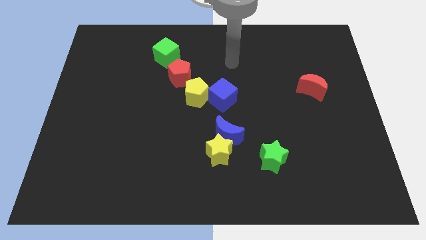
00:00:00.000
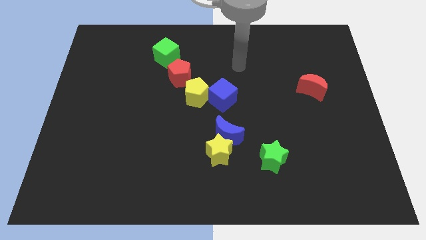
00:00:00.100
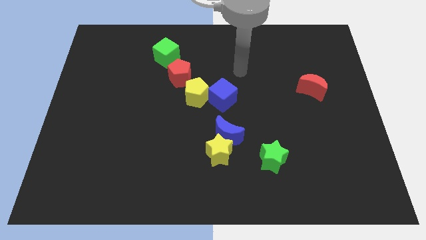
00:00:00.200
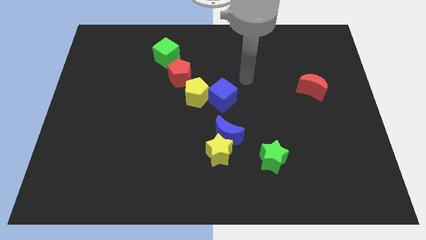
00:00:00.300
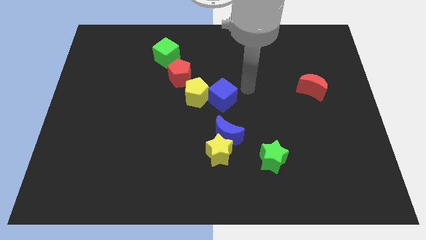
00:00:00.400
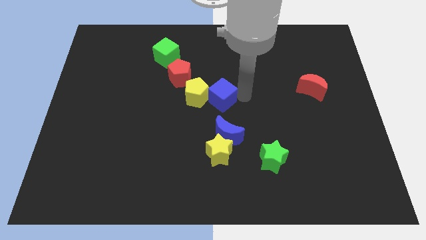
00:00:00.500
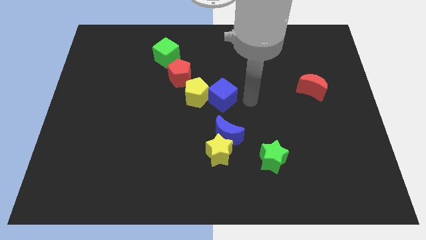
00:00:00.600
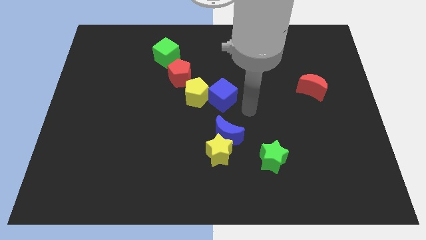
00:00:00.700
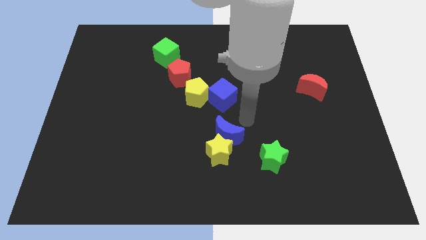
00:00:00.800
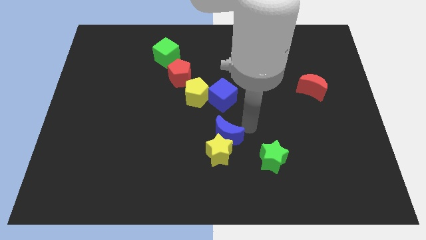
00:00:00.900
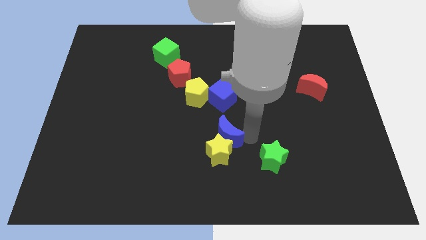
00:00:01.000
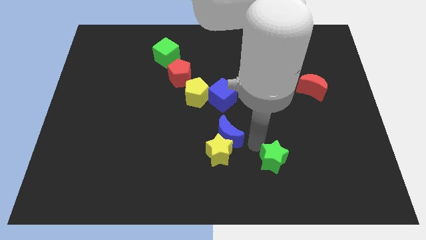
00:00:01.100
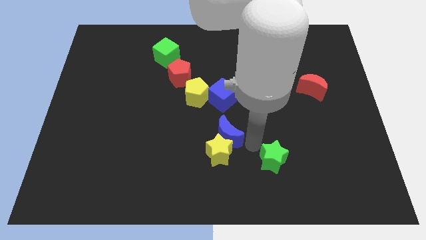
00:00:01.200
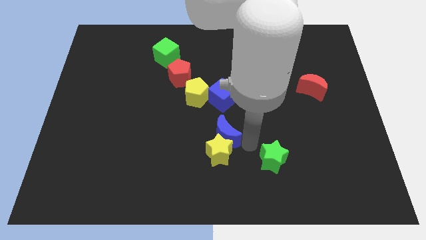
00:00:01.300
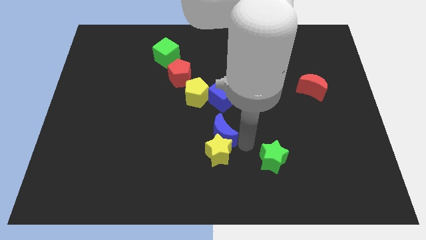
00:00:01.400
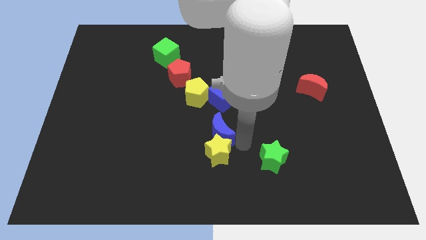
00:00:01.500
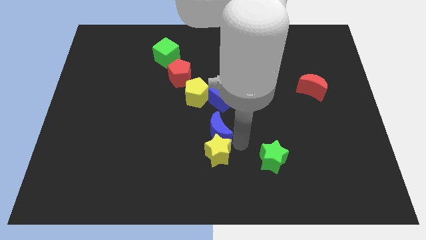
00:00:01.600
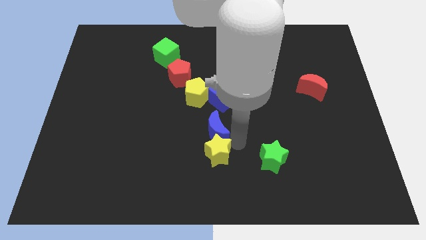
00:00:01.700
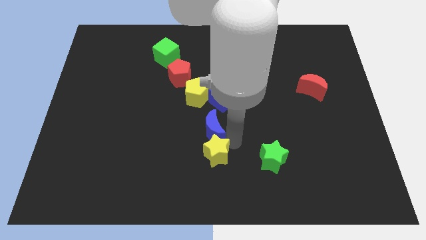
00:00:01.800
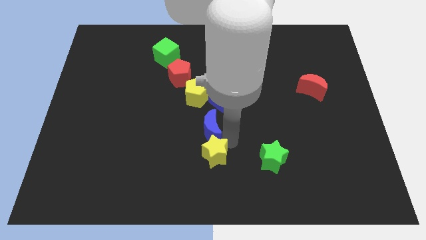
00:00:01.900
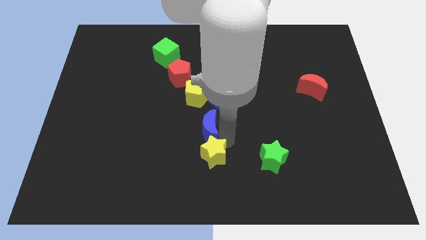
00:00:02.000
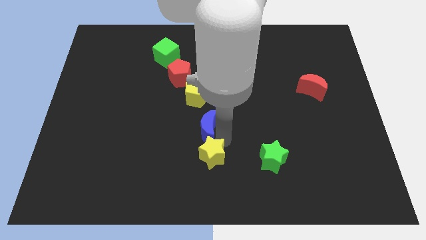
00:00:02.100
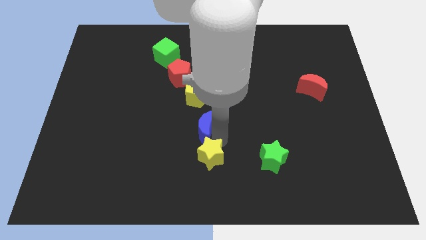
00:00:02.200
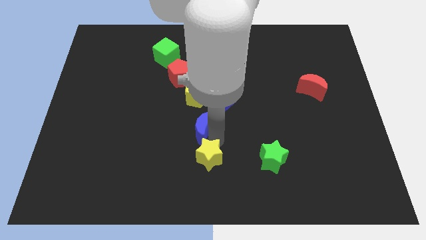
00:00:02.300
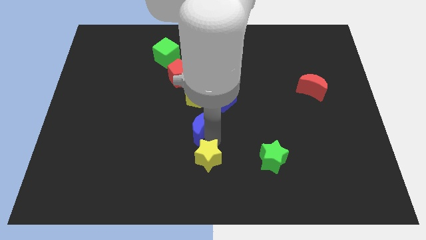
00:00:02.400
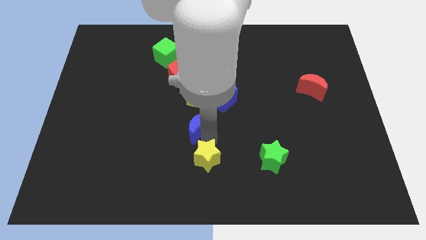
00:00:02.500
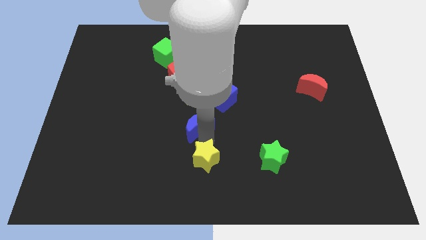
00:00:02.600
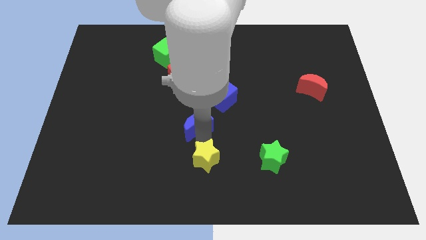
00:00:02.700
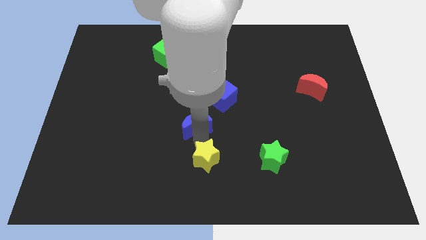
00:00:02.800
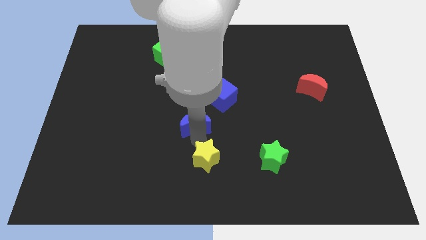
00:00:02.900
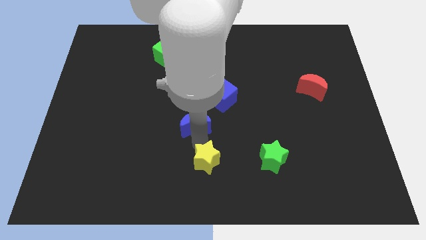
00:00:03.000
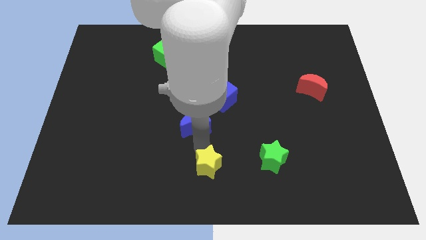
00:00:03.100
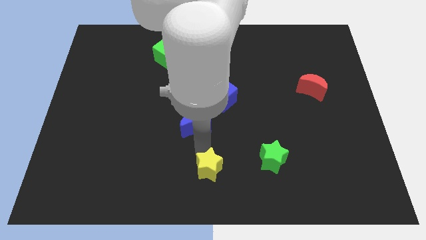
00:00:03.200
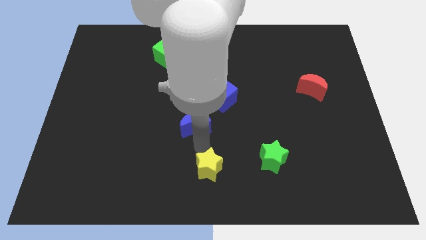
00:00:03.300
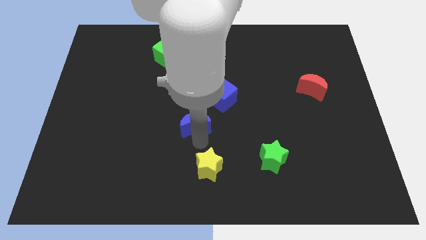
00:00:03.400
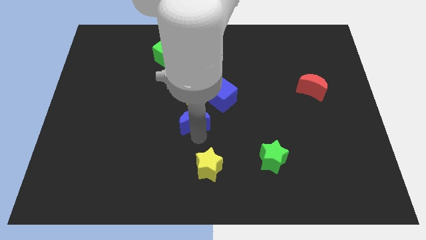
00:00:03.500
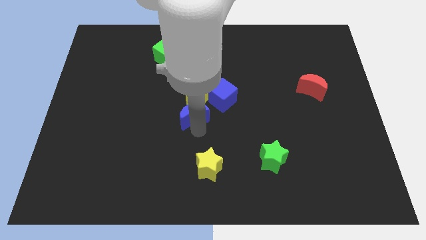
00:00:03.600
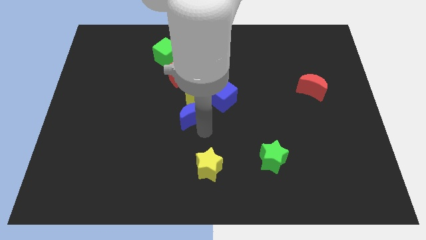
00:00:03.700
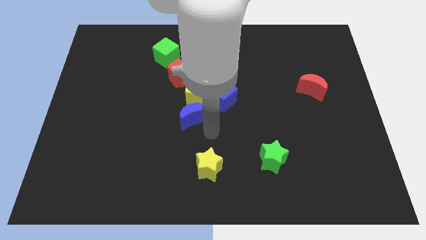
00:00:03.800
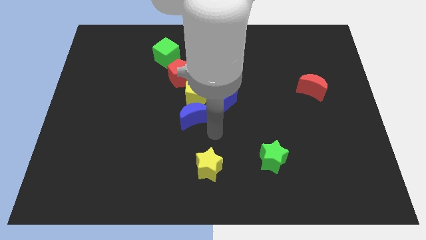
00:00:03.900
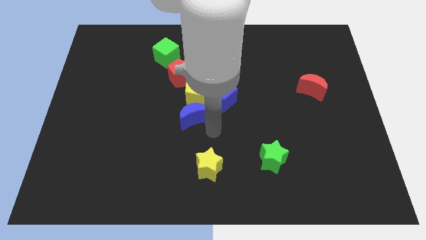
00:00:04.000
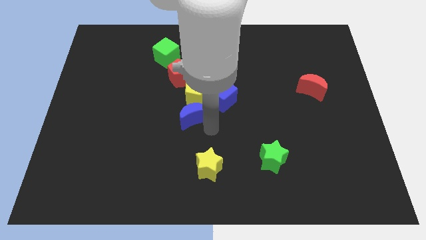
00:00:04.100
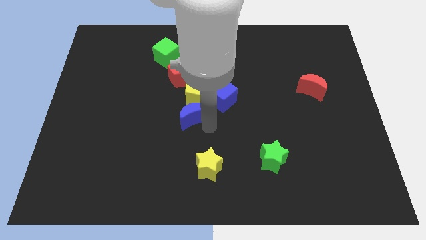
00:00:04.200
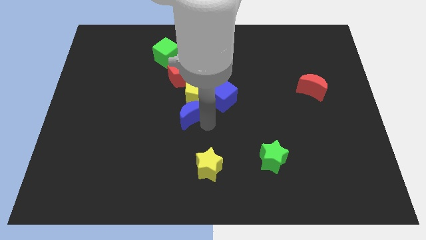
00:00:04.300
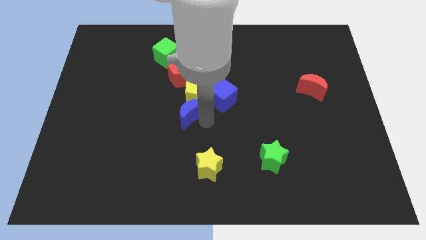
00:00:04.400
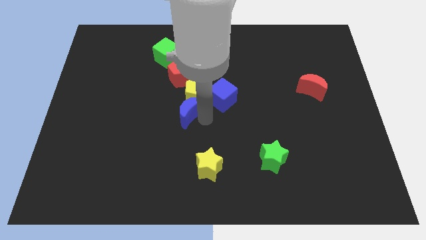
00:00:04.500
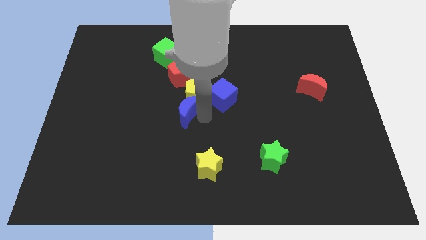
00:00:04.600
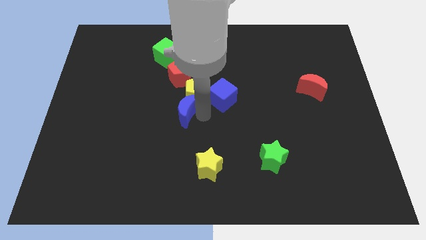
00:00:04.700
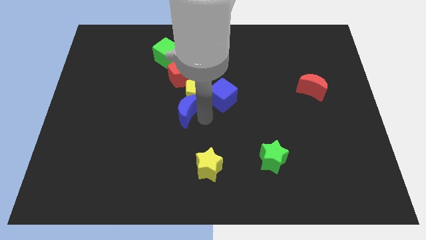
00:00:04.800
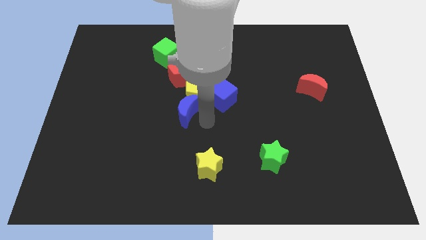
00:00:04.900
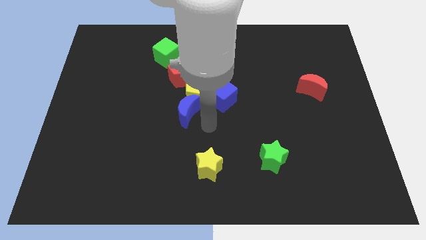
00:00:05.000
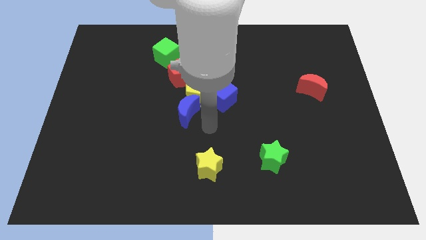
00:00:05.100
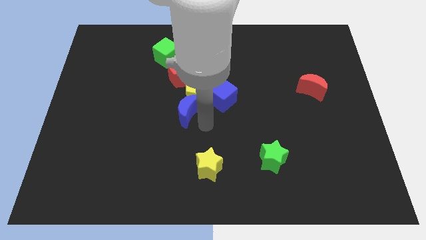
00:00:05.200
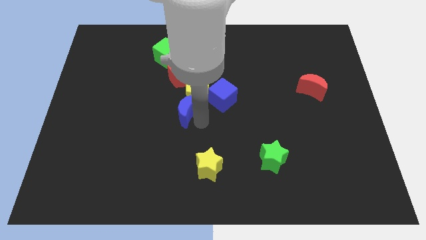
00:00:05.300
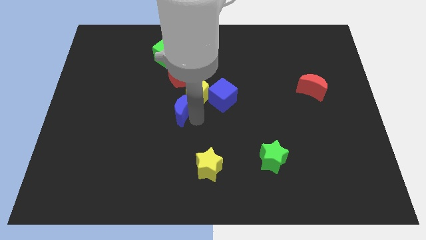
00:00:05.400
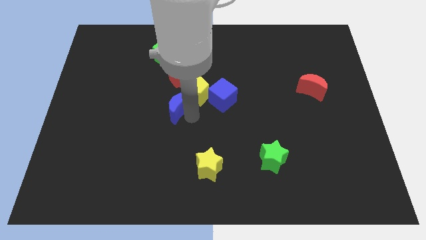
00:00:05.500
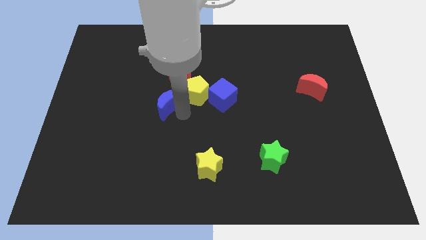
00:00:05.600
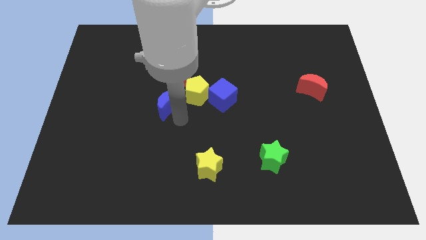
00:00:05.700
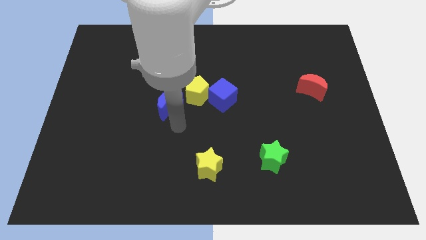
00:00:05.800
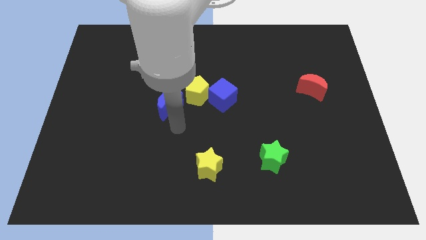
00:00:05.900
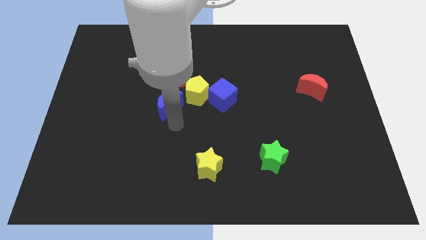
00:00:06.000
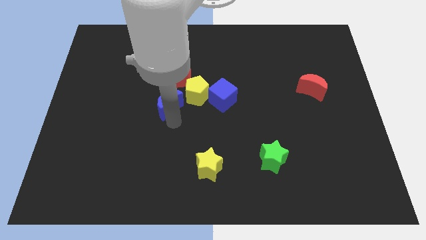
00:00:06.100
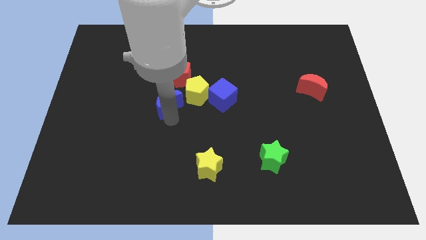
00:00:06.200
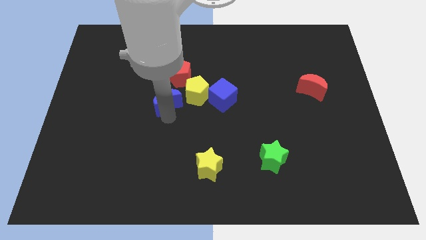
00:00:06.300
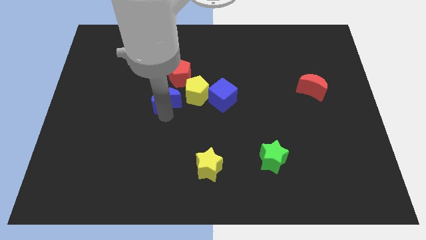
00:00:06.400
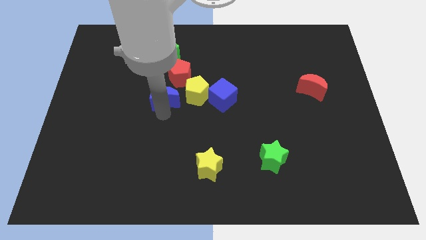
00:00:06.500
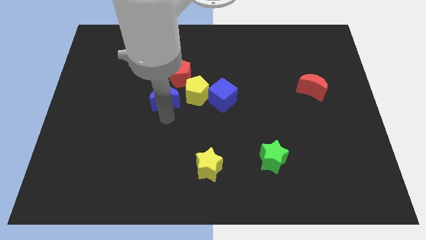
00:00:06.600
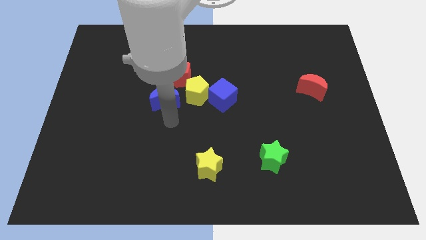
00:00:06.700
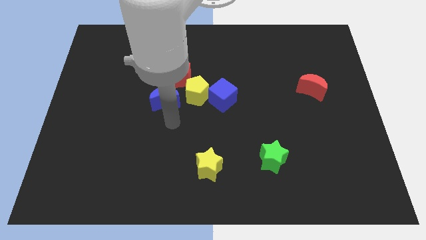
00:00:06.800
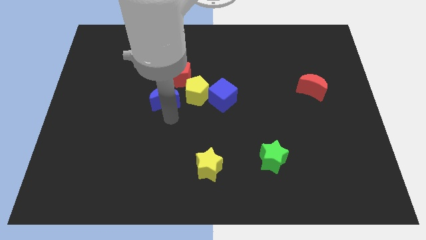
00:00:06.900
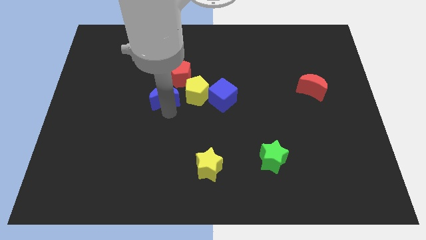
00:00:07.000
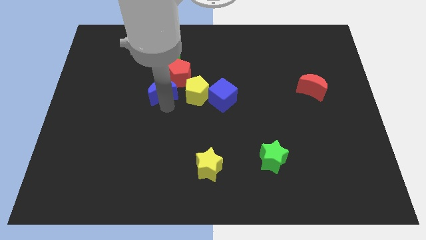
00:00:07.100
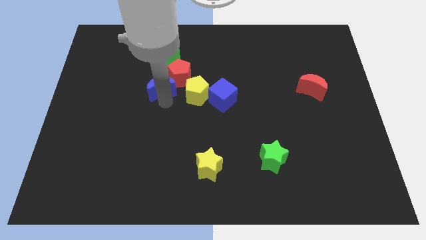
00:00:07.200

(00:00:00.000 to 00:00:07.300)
slide the blue moon up and to the left diagonally

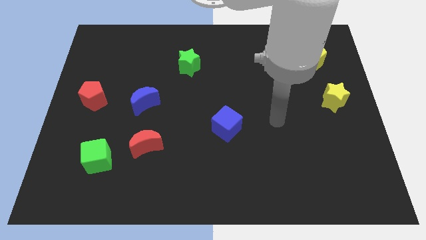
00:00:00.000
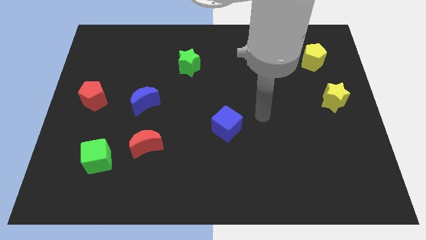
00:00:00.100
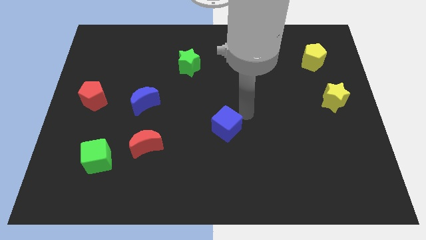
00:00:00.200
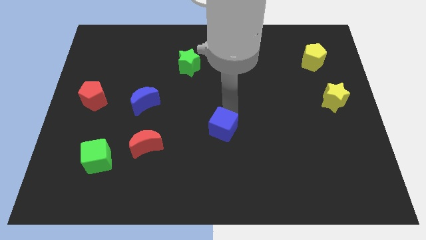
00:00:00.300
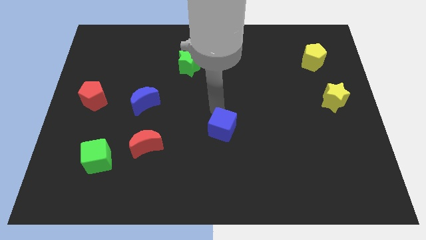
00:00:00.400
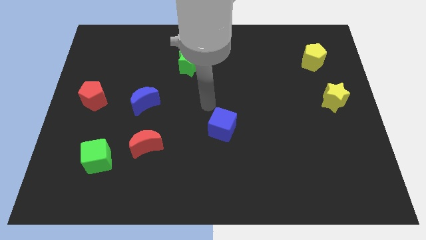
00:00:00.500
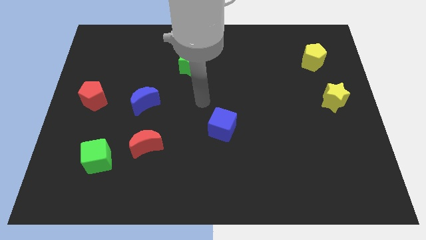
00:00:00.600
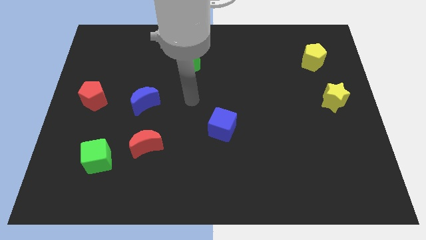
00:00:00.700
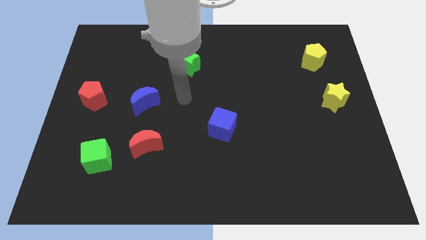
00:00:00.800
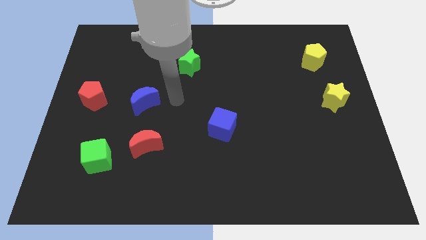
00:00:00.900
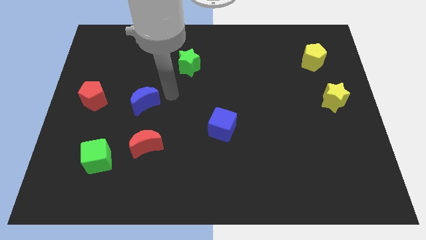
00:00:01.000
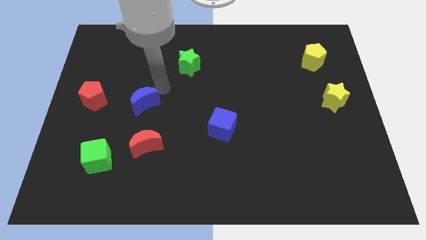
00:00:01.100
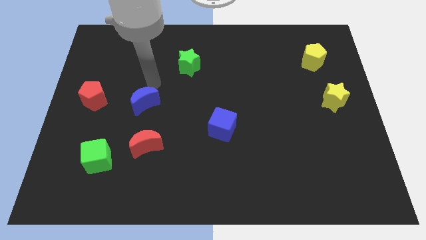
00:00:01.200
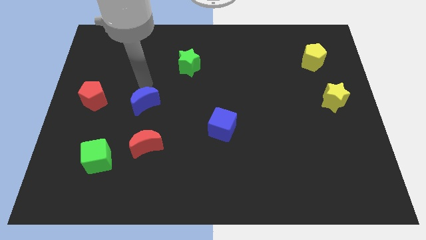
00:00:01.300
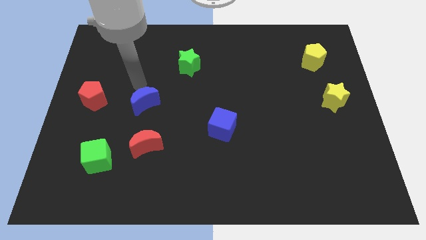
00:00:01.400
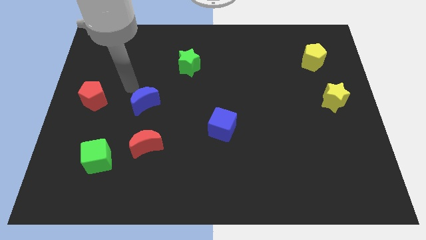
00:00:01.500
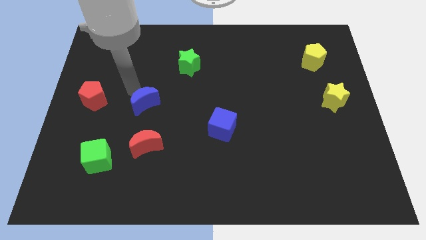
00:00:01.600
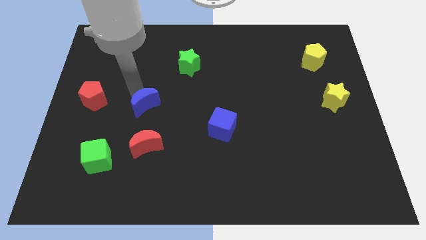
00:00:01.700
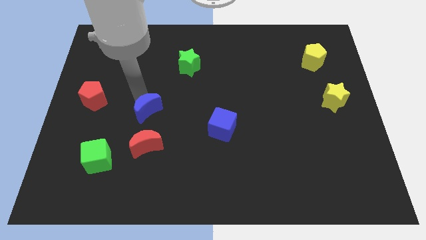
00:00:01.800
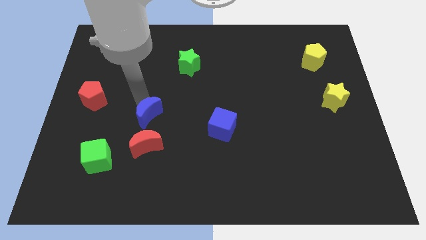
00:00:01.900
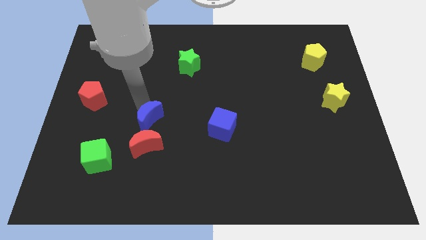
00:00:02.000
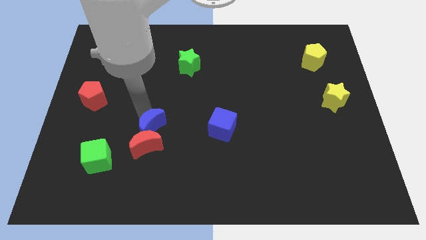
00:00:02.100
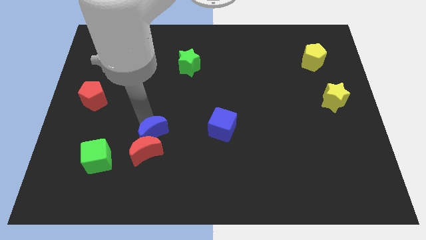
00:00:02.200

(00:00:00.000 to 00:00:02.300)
slide the blue moon diagonally downwards and right somewhat
